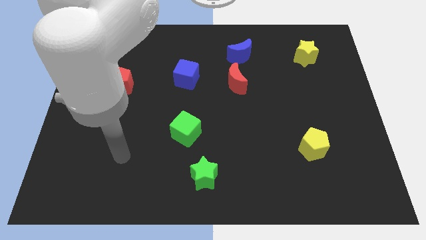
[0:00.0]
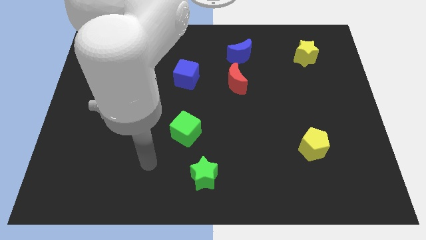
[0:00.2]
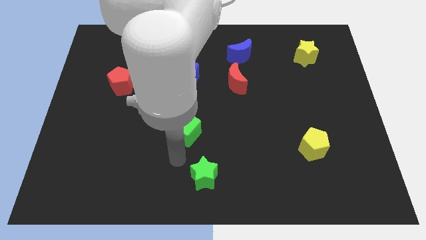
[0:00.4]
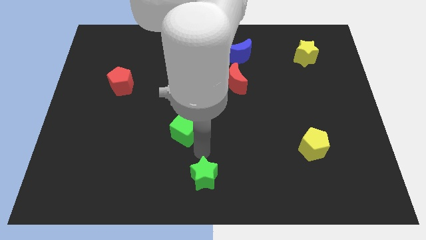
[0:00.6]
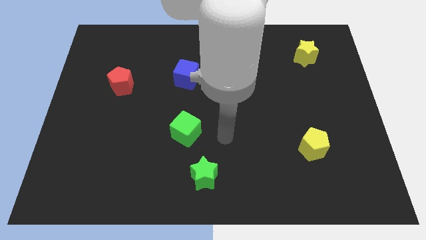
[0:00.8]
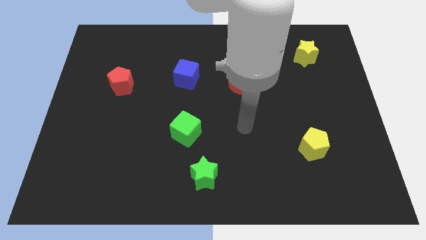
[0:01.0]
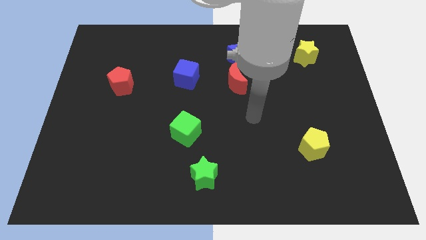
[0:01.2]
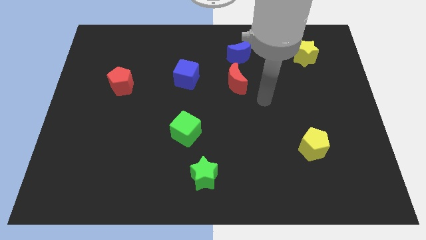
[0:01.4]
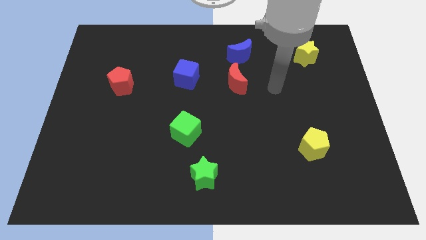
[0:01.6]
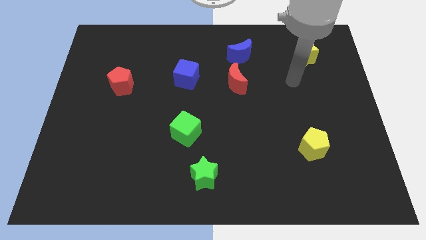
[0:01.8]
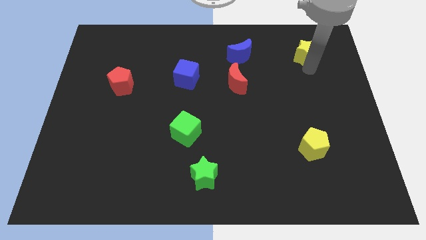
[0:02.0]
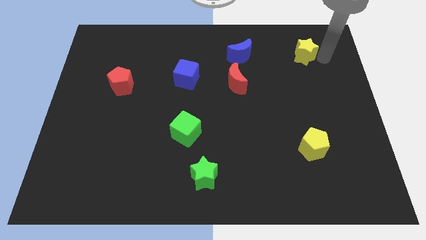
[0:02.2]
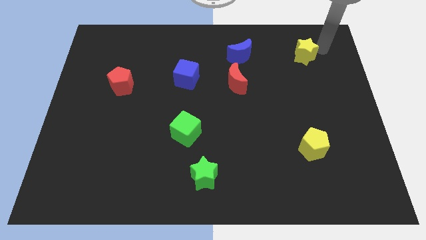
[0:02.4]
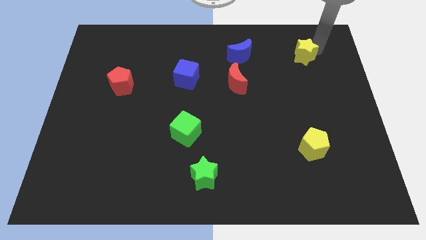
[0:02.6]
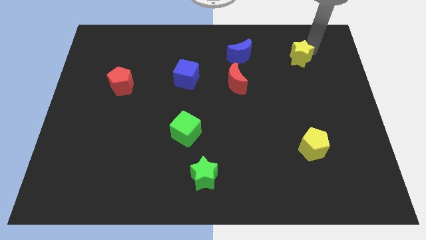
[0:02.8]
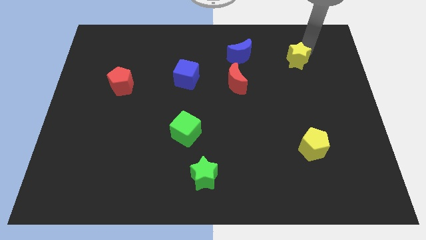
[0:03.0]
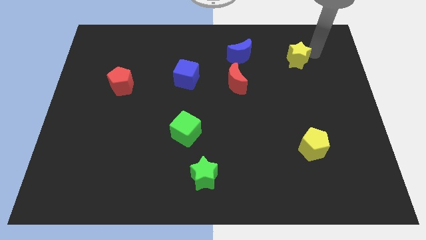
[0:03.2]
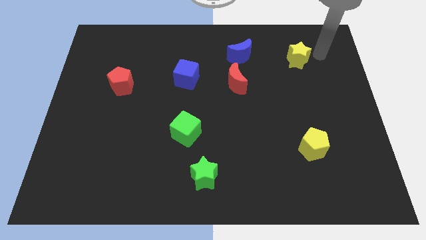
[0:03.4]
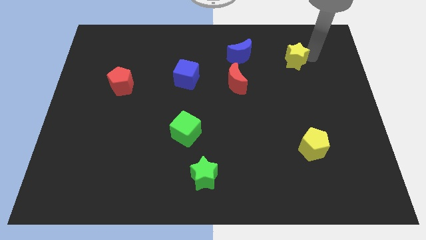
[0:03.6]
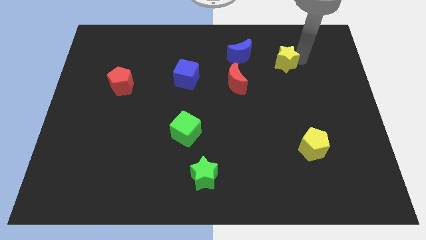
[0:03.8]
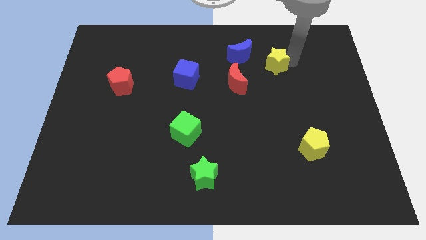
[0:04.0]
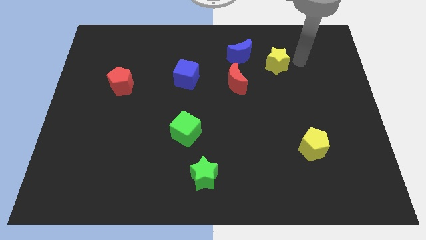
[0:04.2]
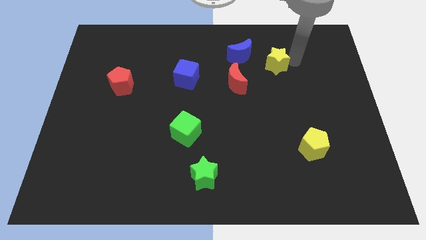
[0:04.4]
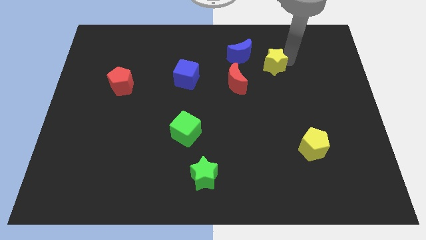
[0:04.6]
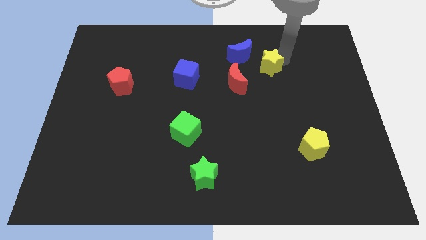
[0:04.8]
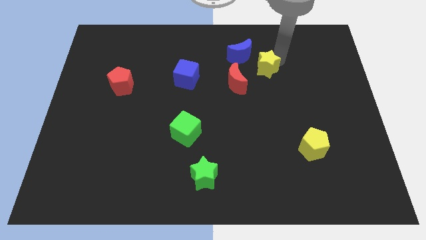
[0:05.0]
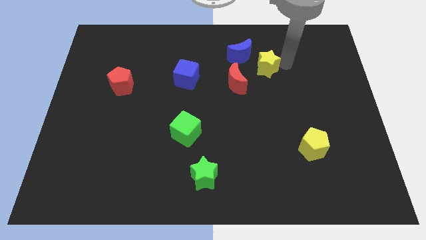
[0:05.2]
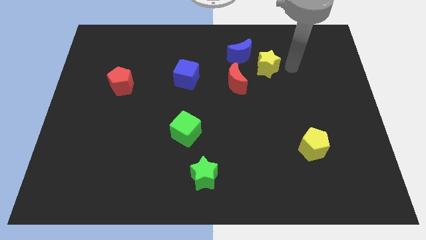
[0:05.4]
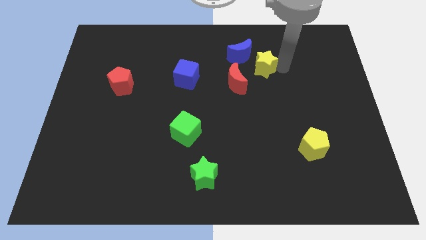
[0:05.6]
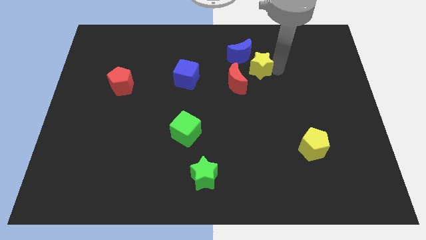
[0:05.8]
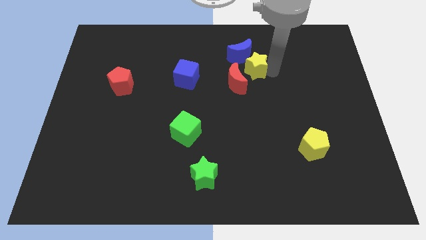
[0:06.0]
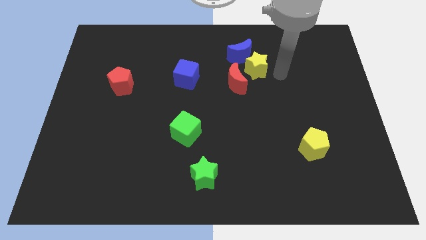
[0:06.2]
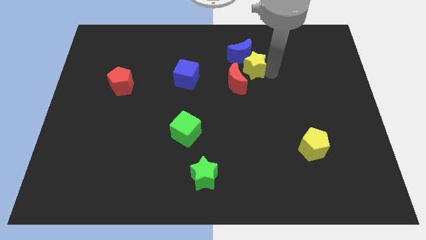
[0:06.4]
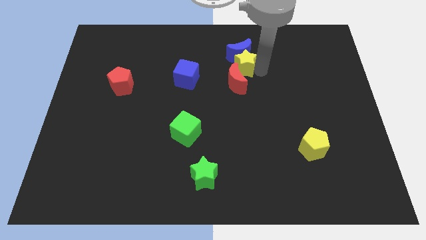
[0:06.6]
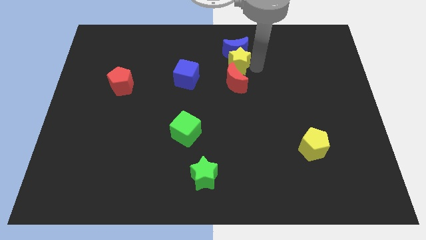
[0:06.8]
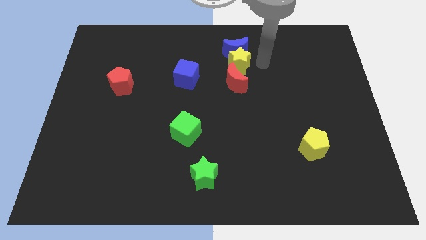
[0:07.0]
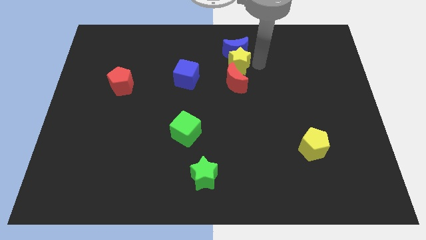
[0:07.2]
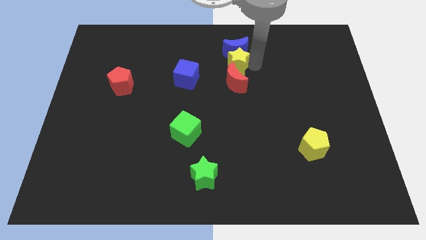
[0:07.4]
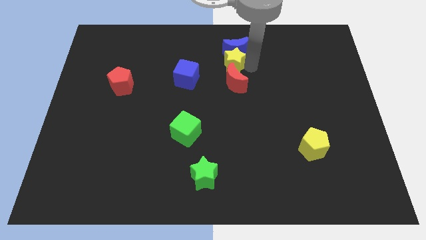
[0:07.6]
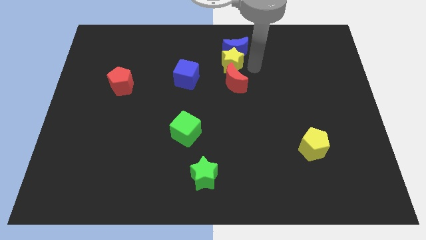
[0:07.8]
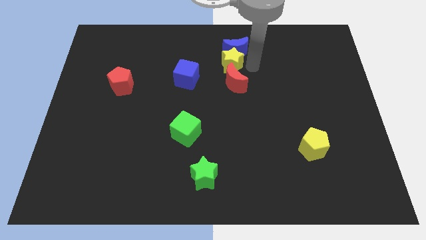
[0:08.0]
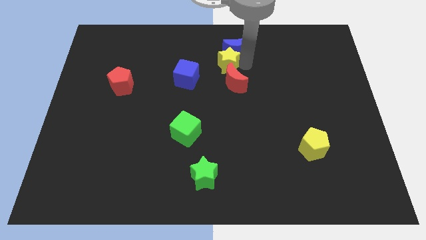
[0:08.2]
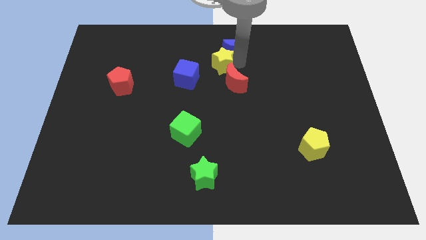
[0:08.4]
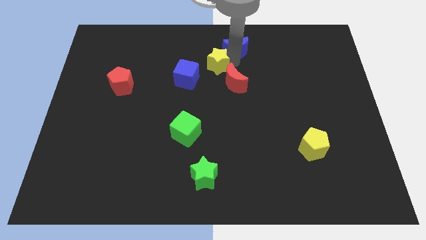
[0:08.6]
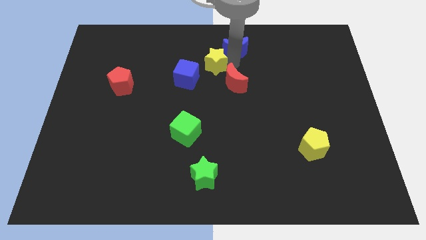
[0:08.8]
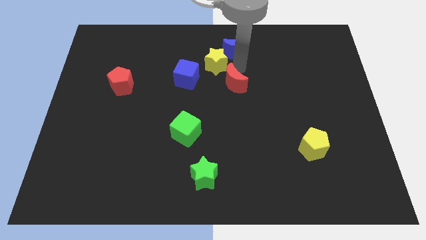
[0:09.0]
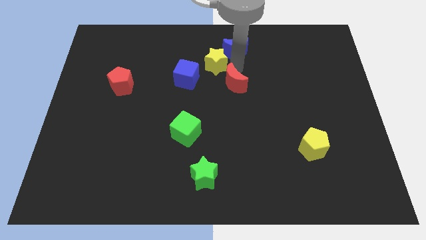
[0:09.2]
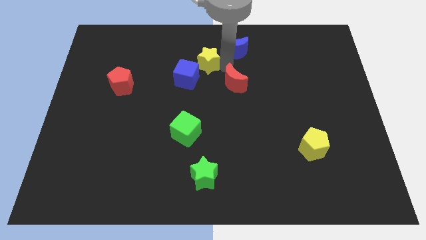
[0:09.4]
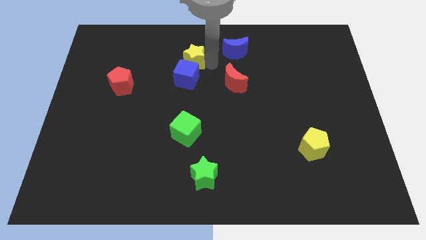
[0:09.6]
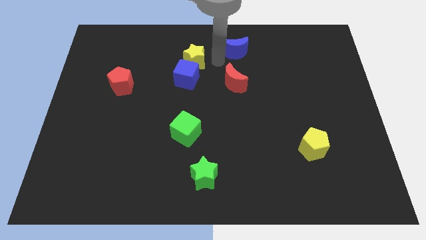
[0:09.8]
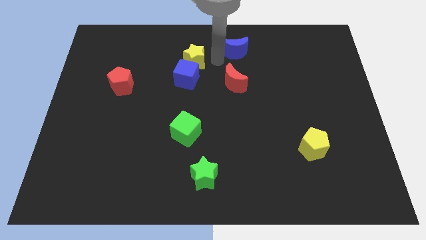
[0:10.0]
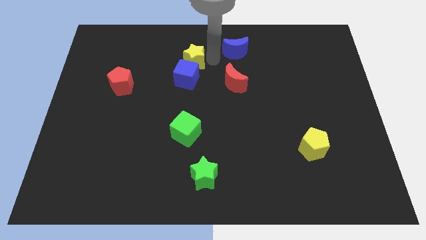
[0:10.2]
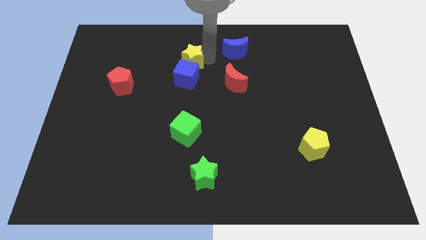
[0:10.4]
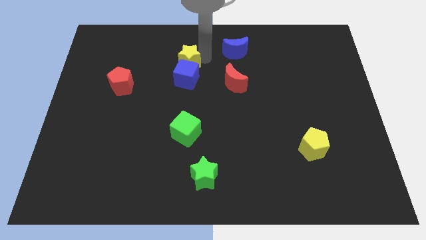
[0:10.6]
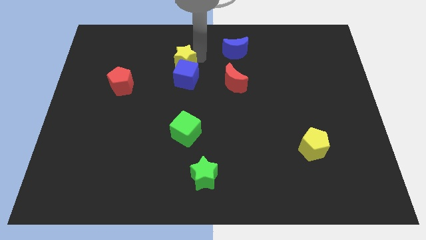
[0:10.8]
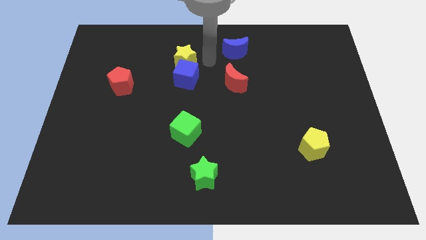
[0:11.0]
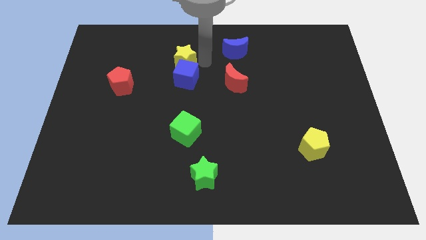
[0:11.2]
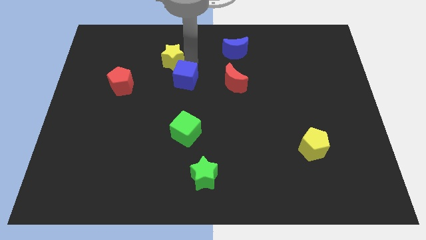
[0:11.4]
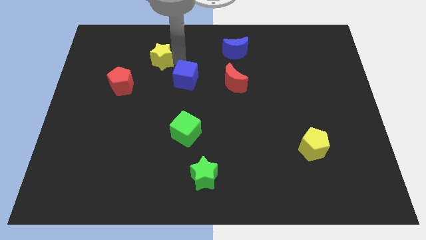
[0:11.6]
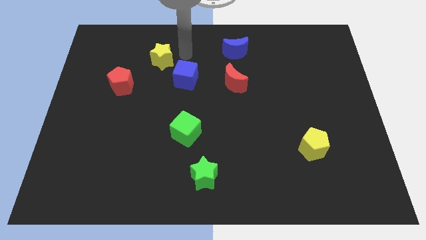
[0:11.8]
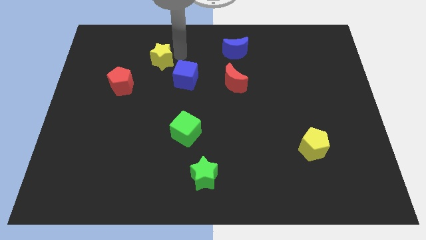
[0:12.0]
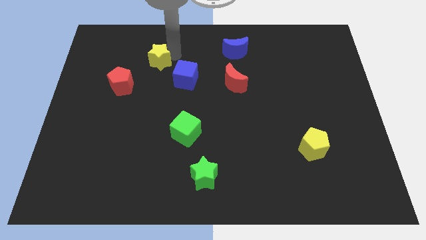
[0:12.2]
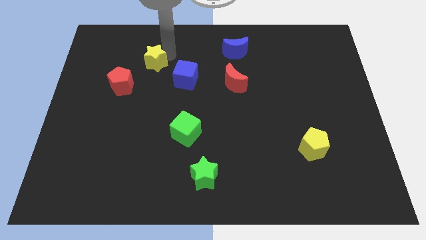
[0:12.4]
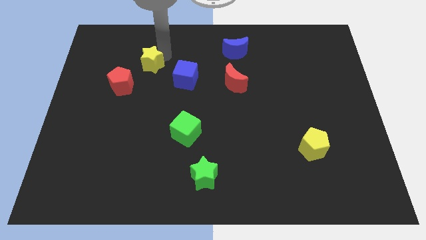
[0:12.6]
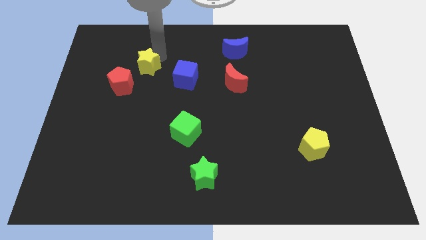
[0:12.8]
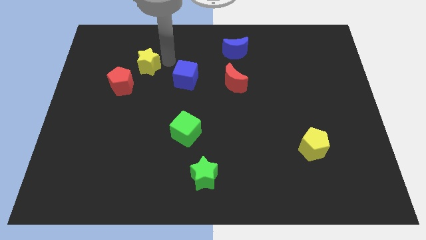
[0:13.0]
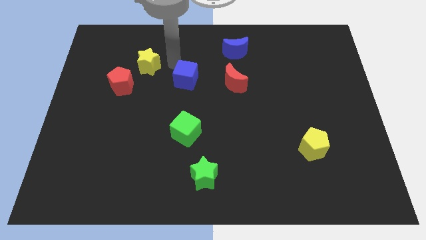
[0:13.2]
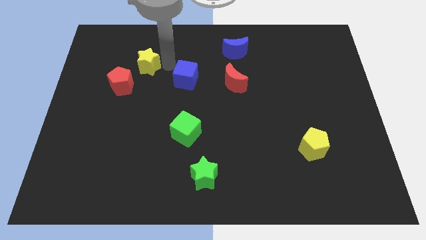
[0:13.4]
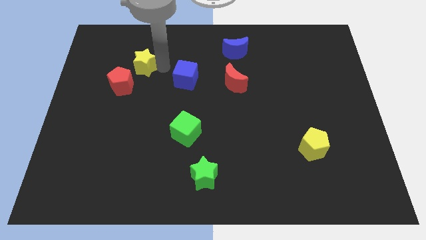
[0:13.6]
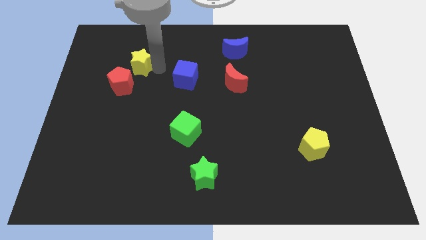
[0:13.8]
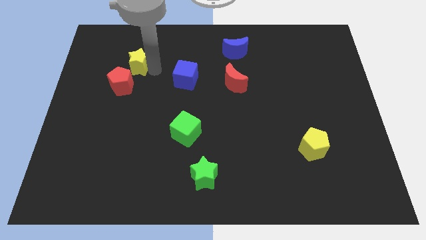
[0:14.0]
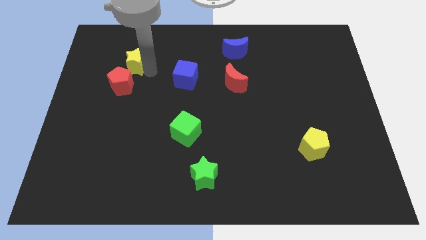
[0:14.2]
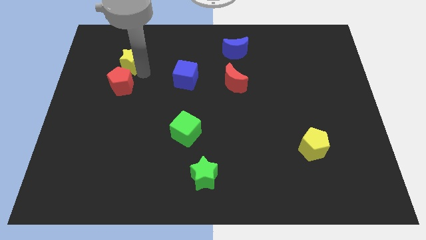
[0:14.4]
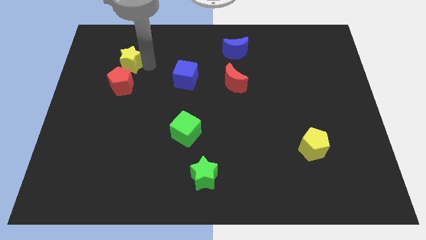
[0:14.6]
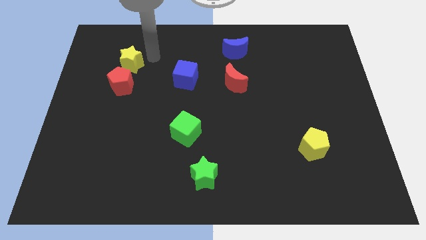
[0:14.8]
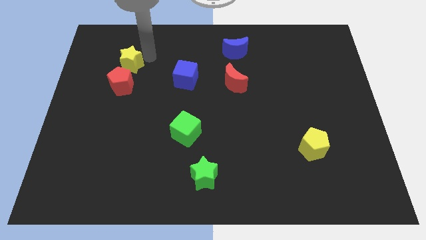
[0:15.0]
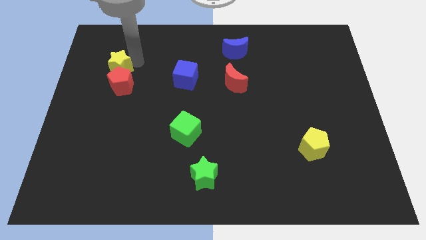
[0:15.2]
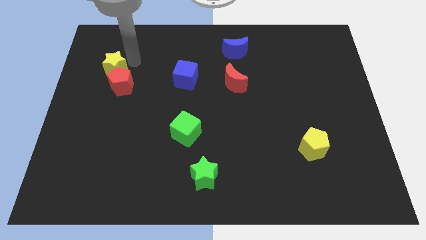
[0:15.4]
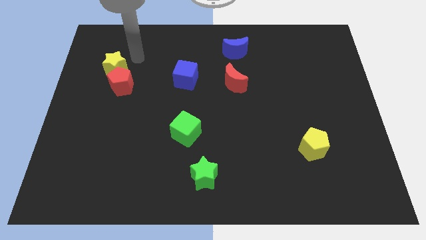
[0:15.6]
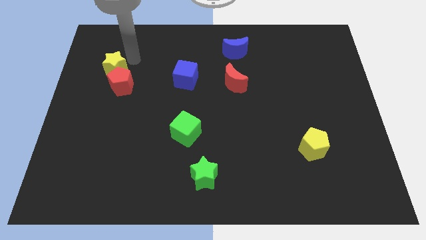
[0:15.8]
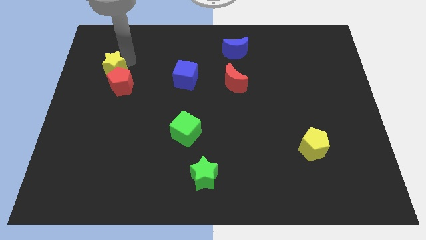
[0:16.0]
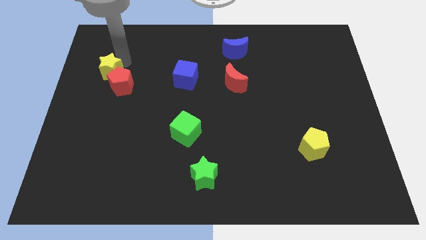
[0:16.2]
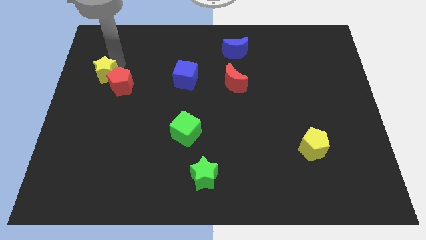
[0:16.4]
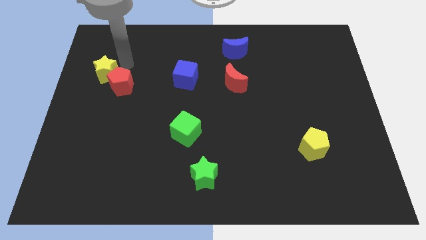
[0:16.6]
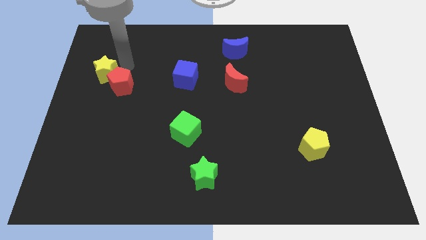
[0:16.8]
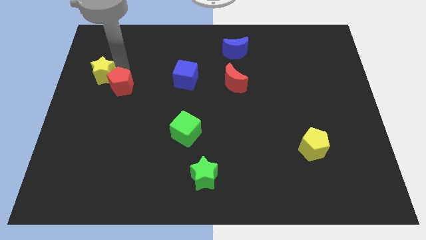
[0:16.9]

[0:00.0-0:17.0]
put the yellow star to the center left
